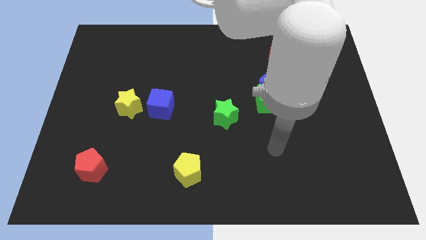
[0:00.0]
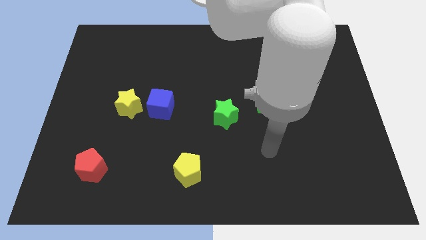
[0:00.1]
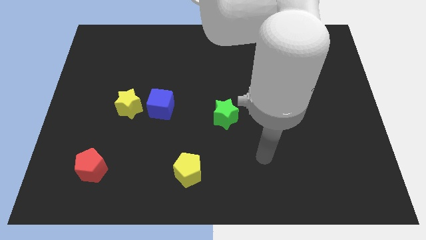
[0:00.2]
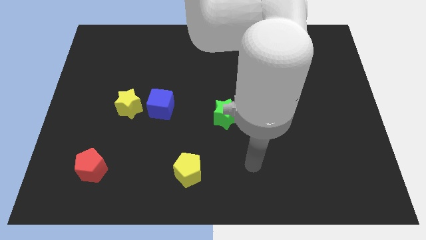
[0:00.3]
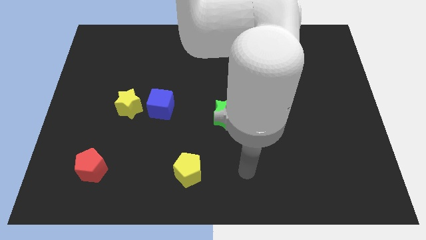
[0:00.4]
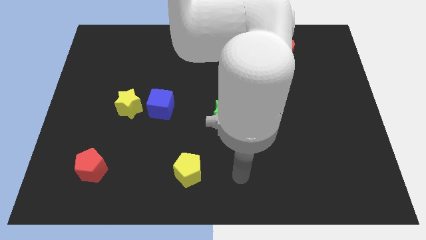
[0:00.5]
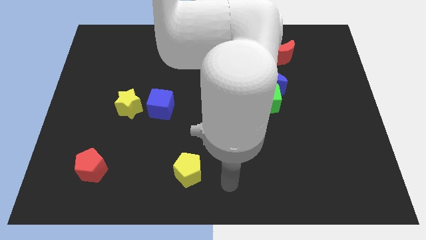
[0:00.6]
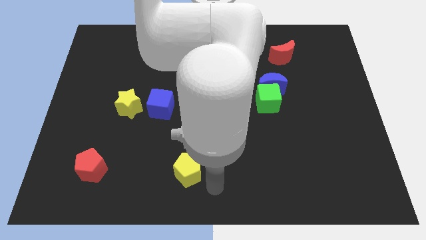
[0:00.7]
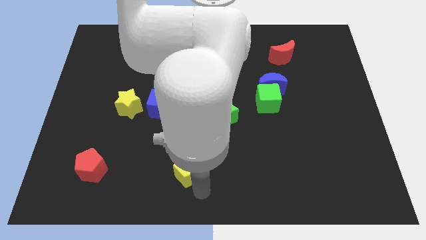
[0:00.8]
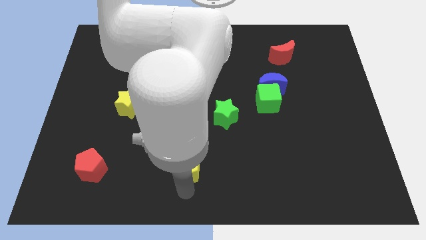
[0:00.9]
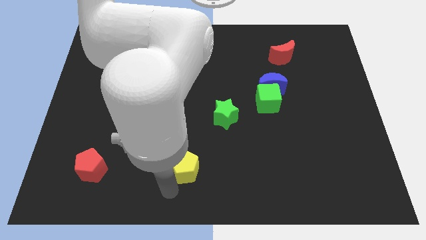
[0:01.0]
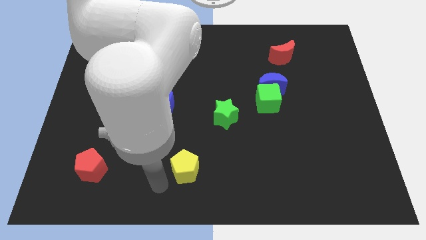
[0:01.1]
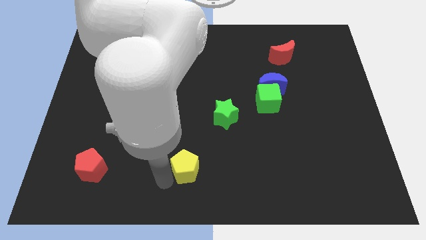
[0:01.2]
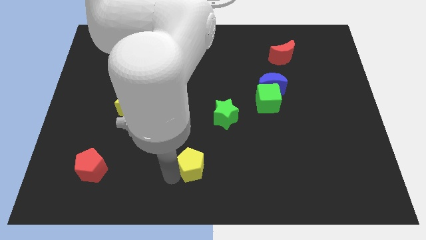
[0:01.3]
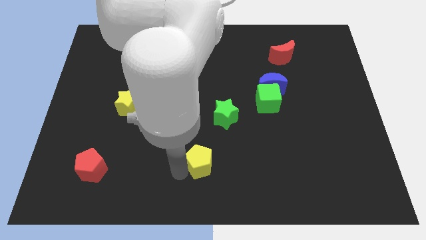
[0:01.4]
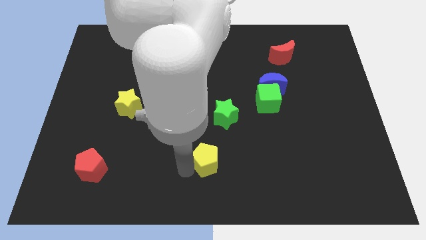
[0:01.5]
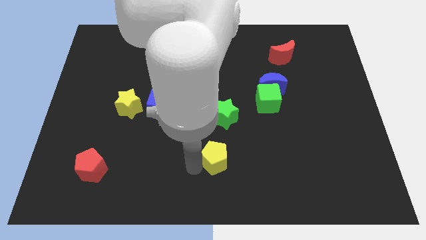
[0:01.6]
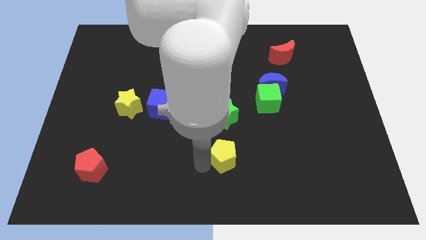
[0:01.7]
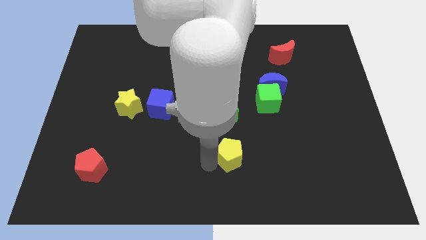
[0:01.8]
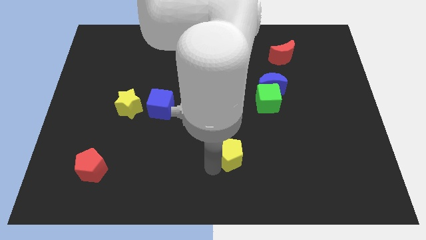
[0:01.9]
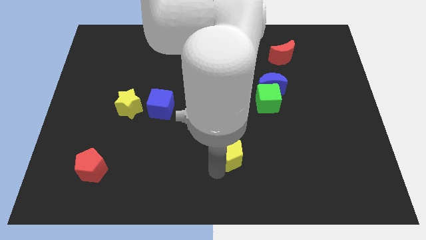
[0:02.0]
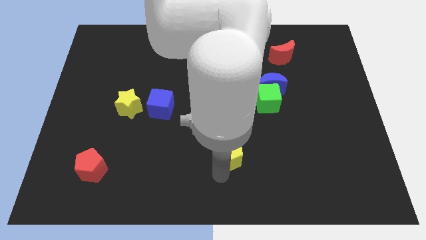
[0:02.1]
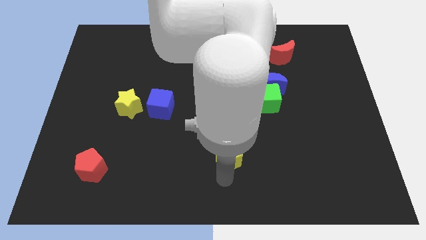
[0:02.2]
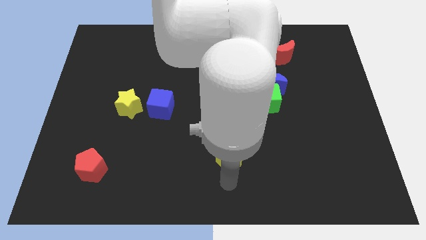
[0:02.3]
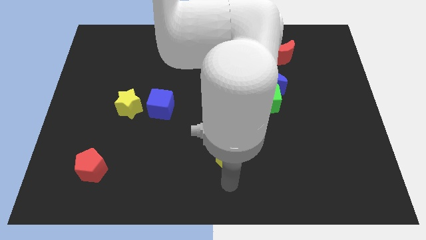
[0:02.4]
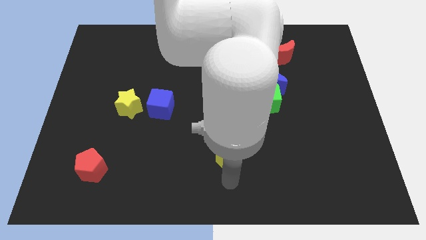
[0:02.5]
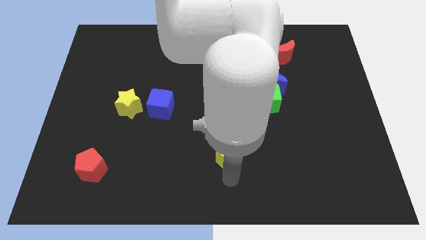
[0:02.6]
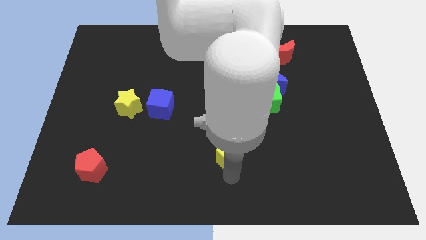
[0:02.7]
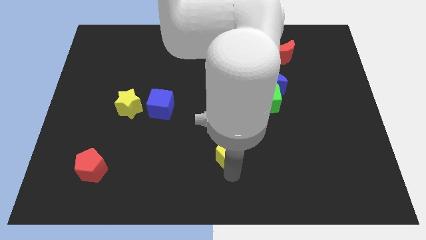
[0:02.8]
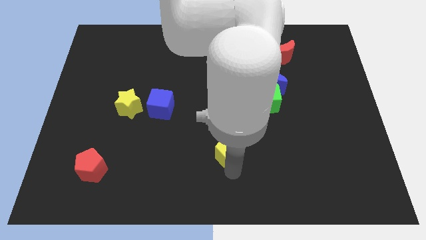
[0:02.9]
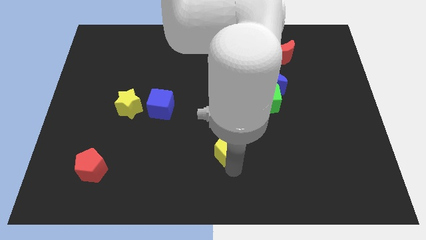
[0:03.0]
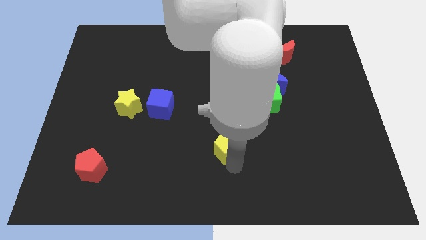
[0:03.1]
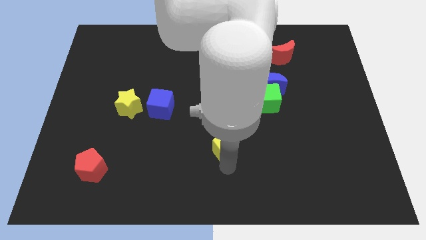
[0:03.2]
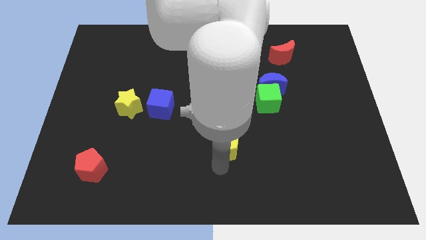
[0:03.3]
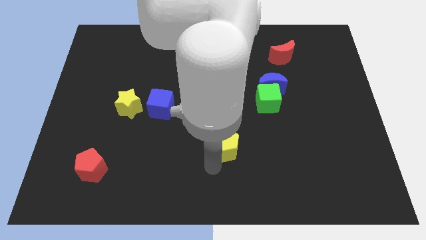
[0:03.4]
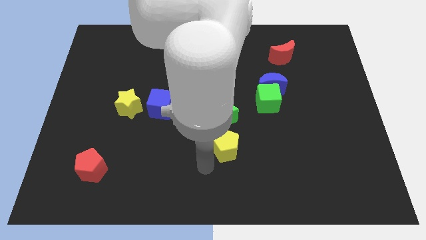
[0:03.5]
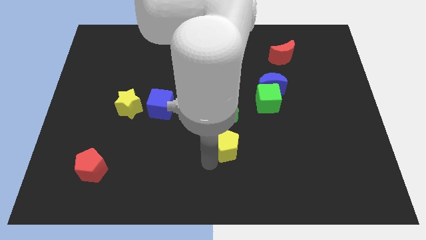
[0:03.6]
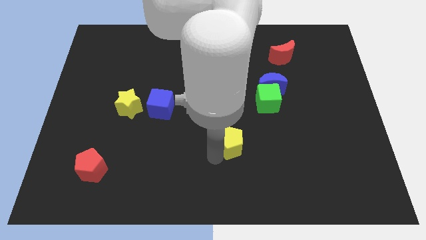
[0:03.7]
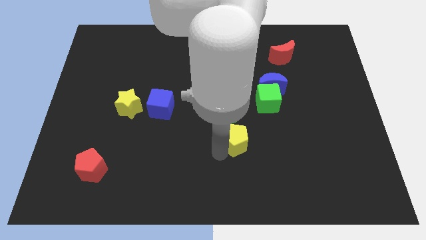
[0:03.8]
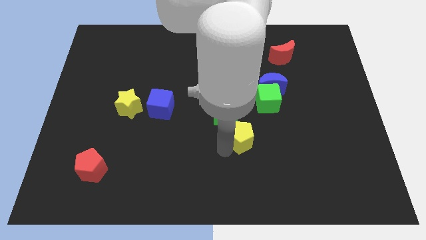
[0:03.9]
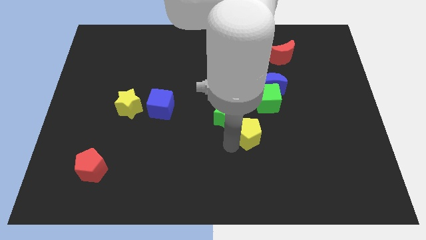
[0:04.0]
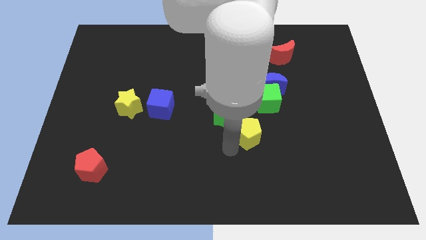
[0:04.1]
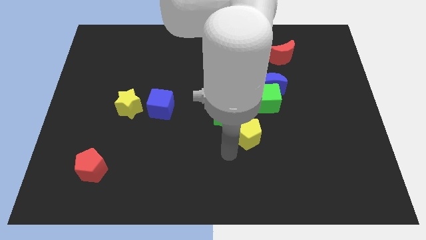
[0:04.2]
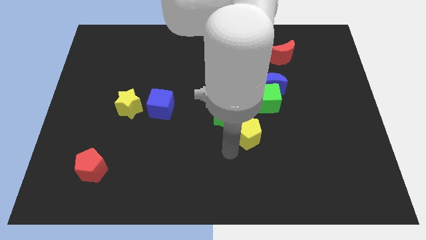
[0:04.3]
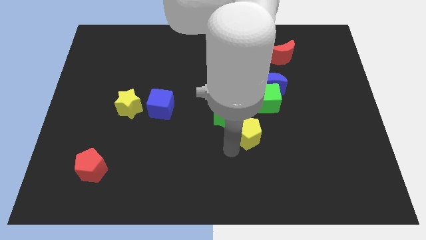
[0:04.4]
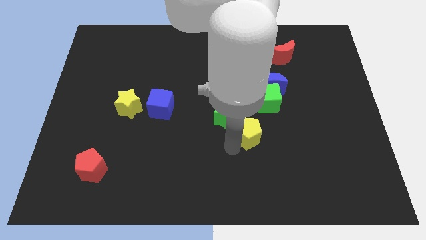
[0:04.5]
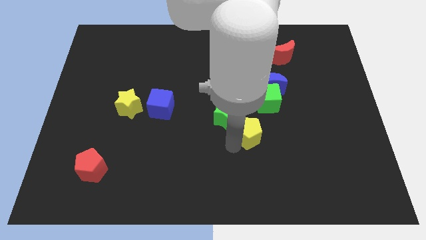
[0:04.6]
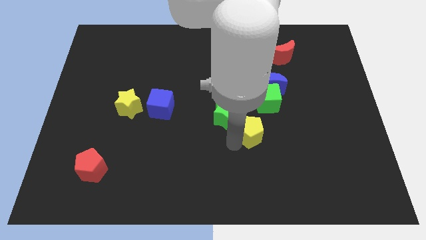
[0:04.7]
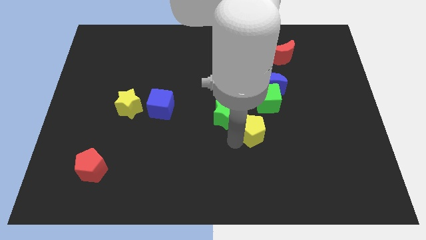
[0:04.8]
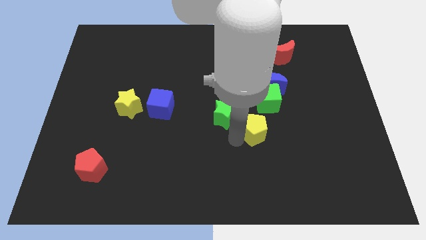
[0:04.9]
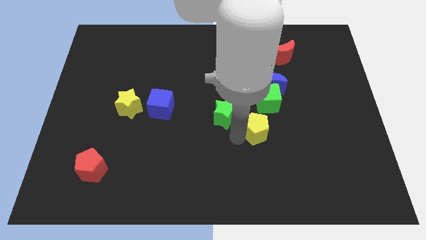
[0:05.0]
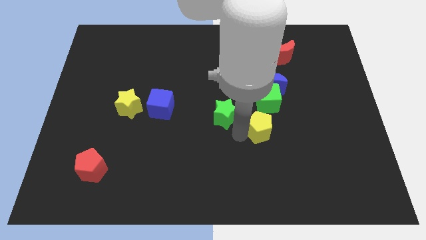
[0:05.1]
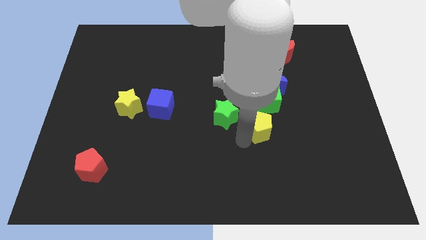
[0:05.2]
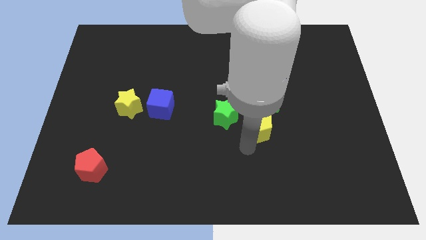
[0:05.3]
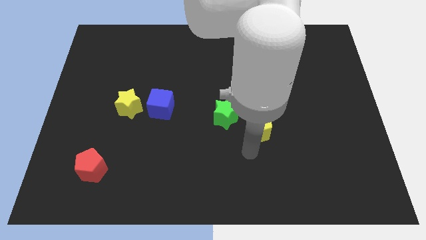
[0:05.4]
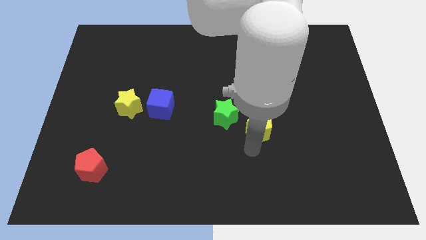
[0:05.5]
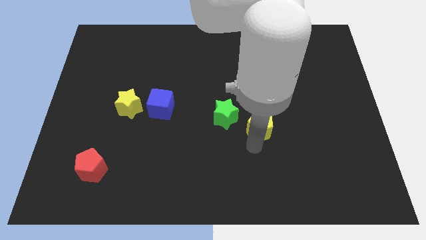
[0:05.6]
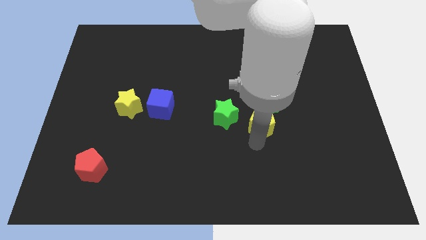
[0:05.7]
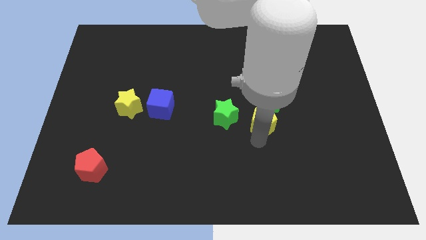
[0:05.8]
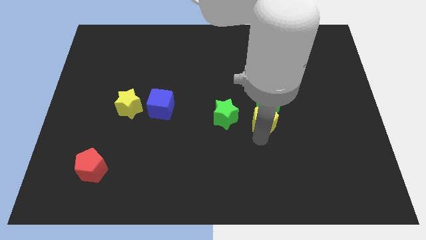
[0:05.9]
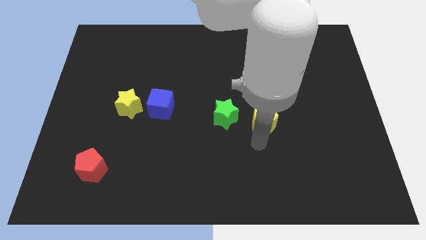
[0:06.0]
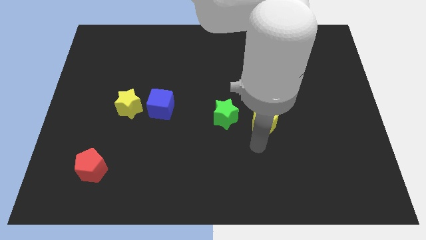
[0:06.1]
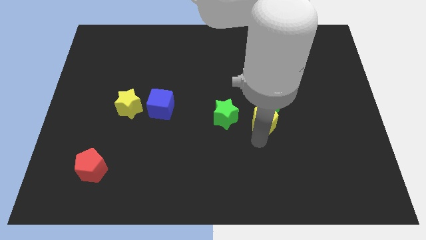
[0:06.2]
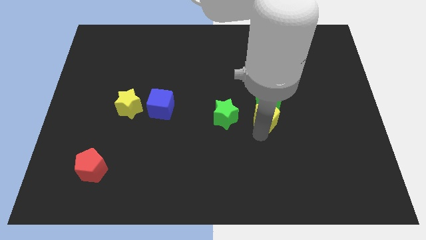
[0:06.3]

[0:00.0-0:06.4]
push the yellow pentagon close to the green cube

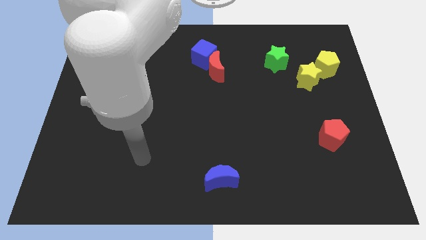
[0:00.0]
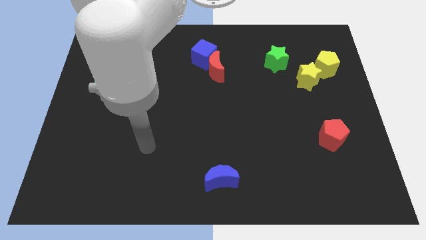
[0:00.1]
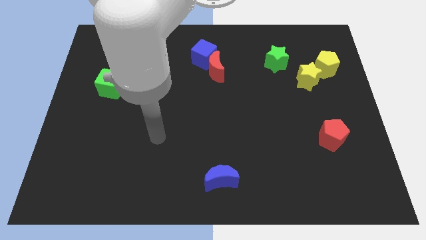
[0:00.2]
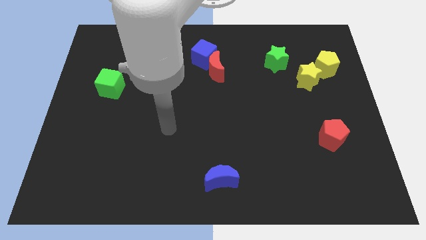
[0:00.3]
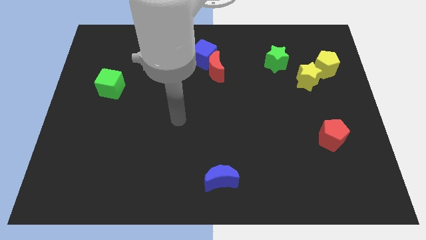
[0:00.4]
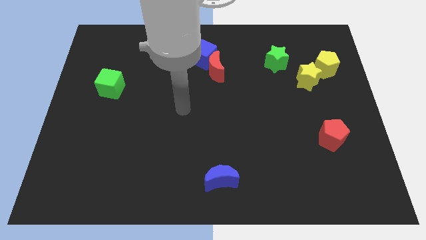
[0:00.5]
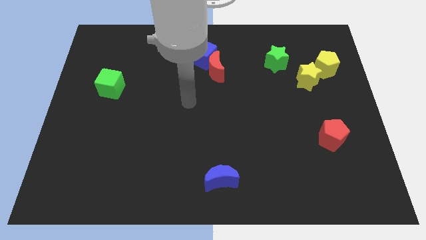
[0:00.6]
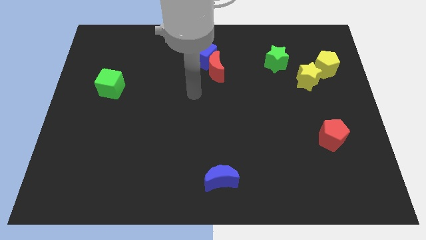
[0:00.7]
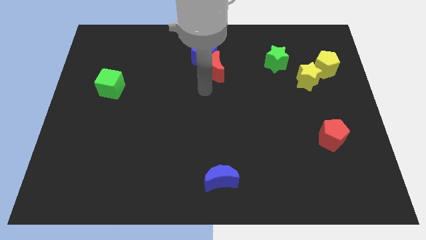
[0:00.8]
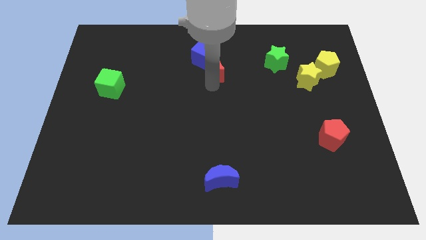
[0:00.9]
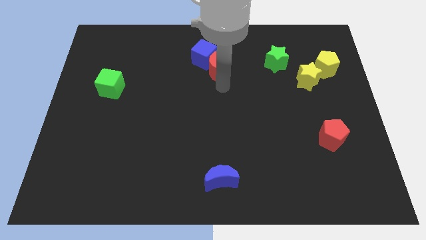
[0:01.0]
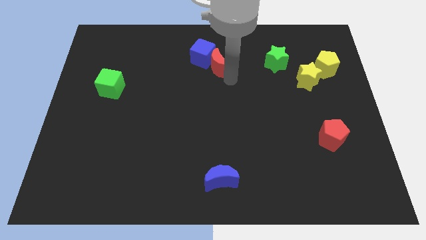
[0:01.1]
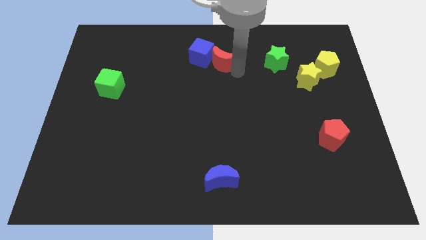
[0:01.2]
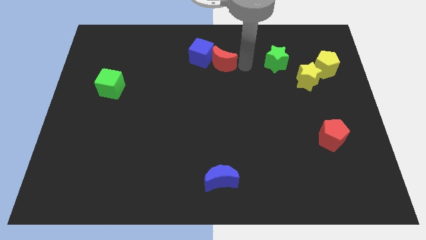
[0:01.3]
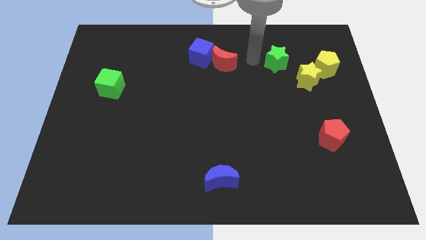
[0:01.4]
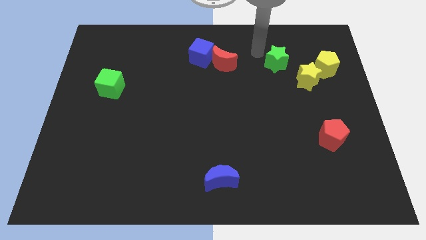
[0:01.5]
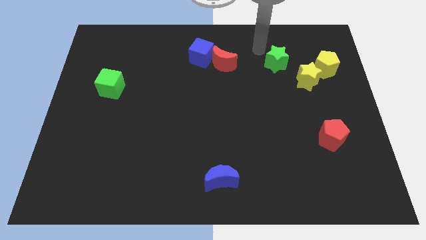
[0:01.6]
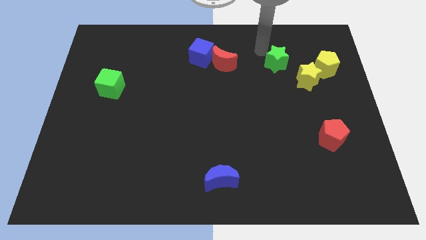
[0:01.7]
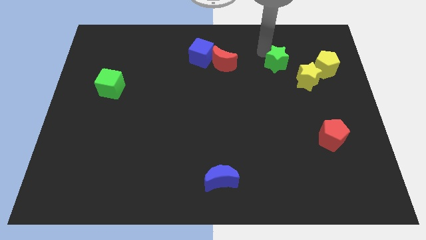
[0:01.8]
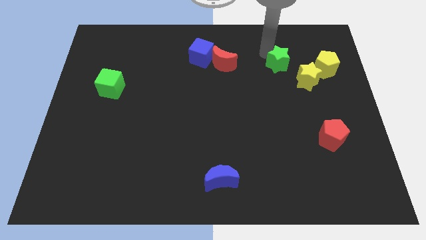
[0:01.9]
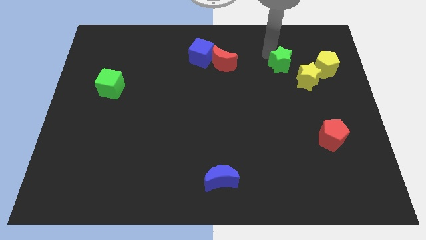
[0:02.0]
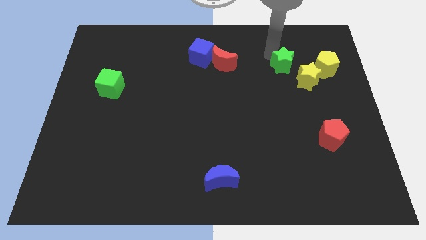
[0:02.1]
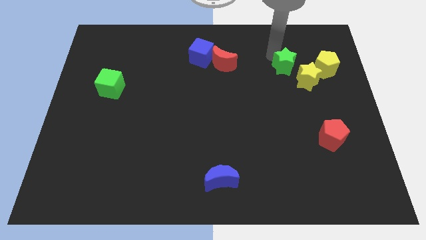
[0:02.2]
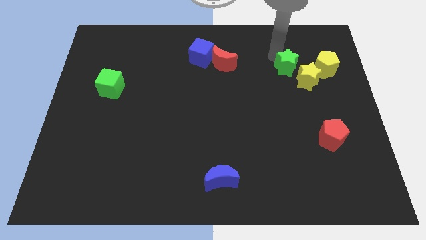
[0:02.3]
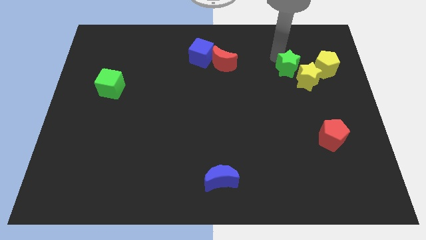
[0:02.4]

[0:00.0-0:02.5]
move the green star to the yellow star
